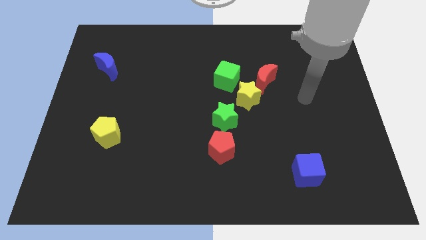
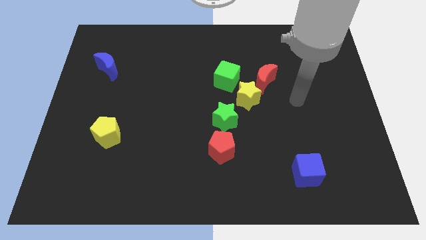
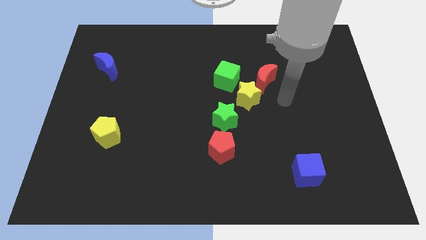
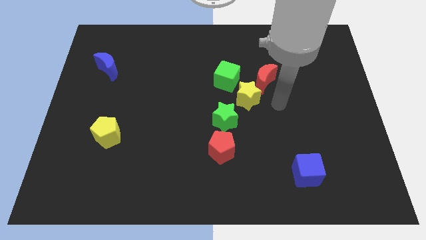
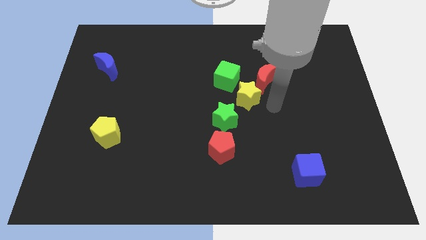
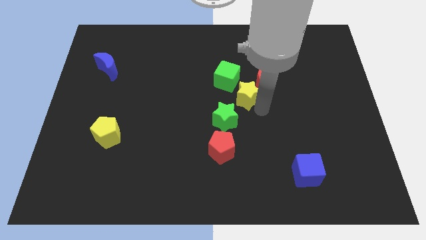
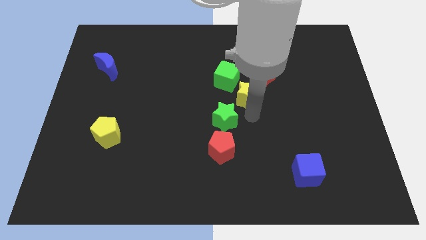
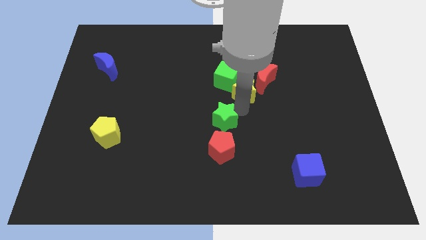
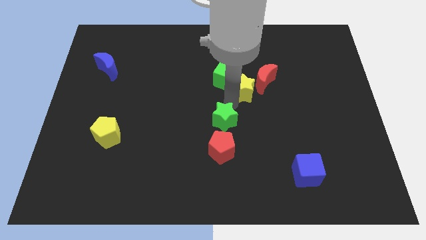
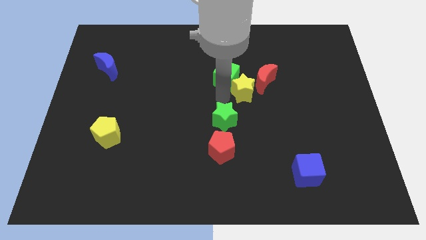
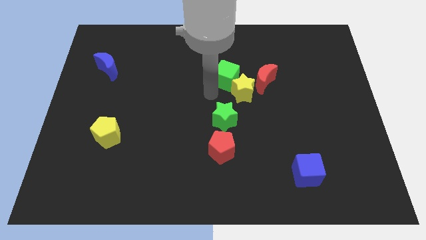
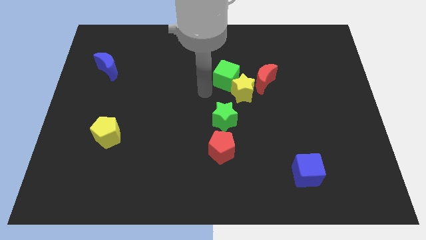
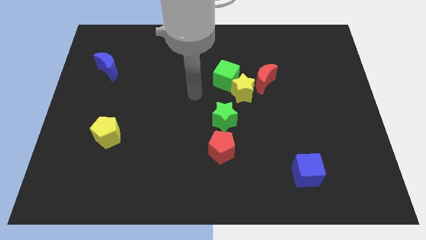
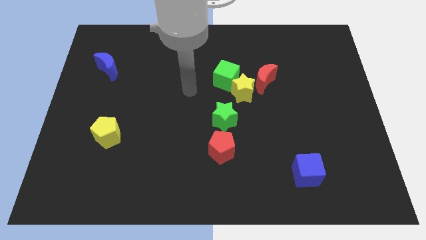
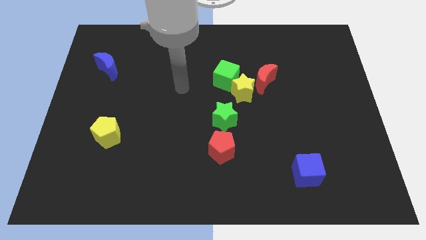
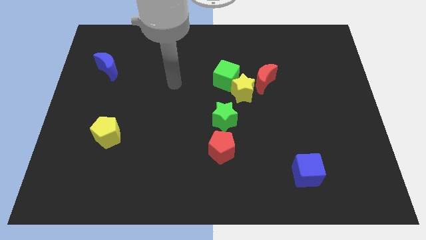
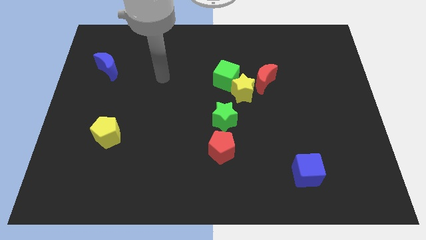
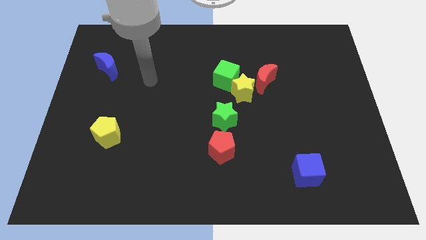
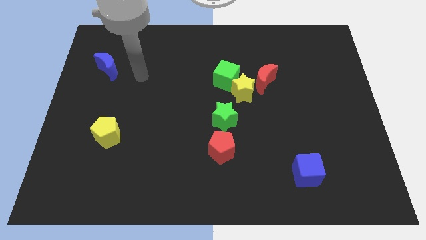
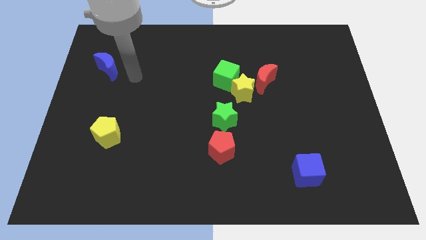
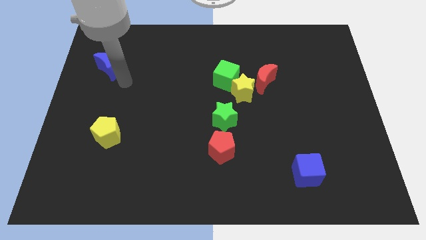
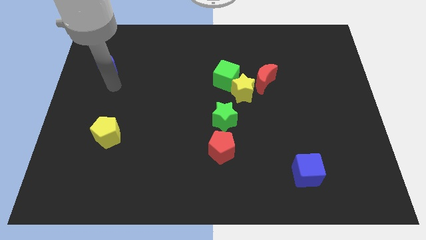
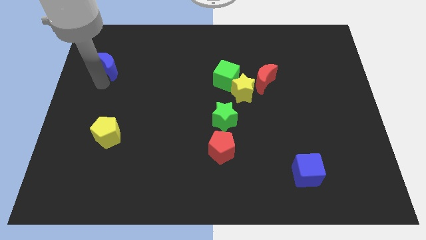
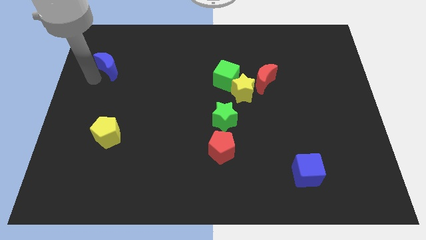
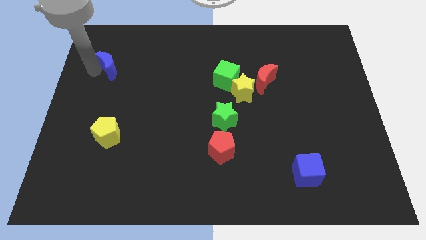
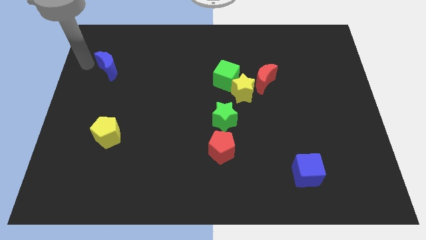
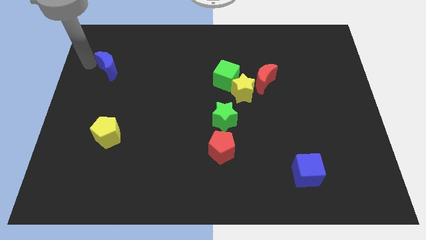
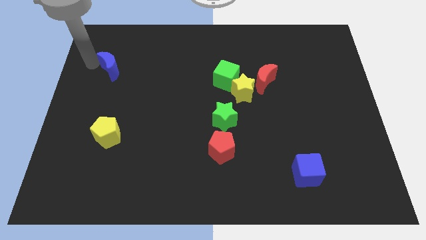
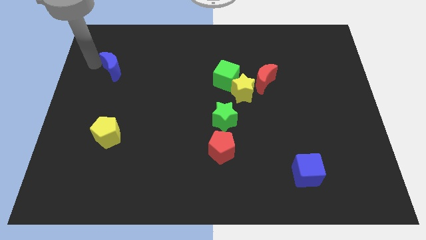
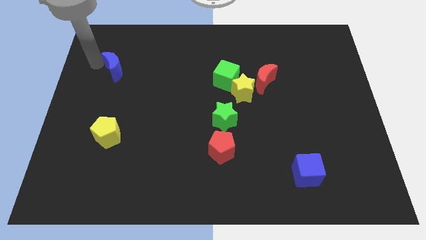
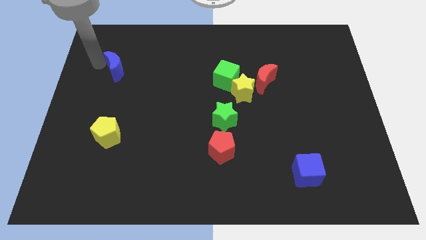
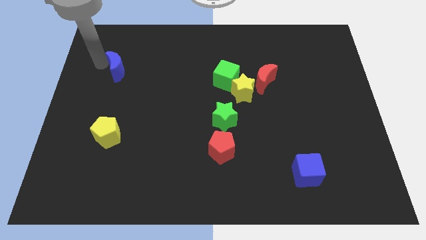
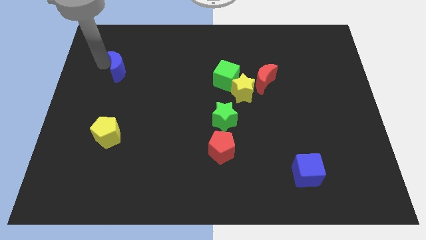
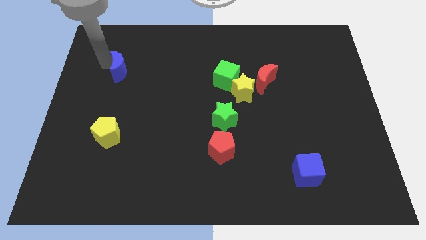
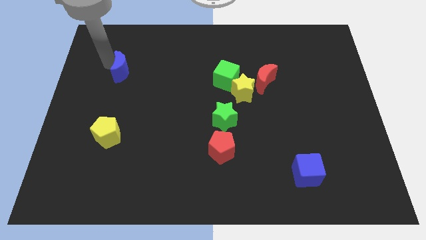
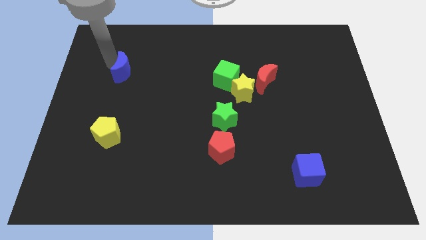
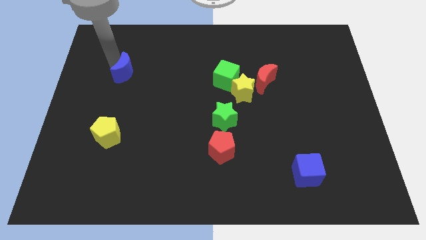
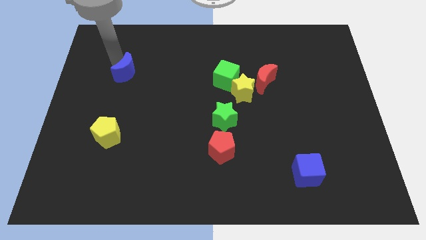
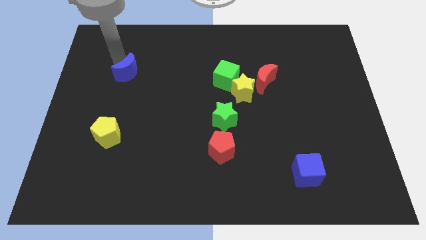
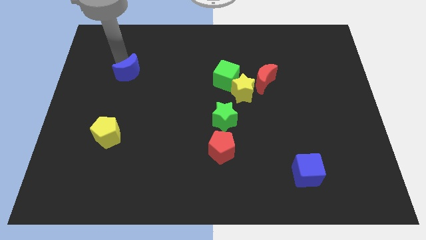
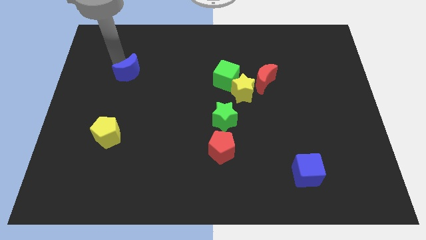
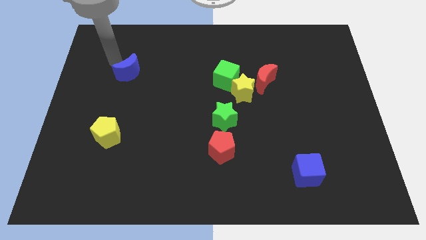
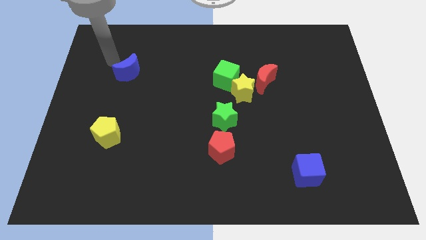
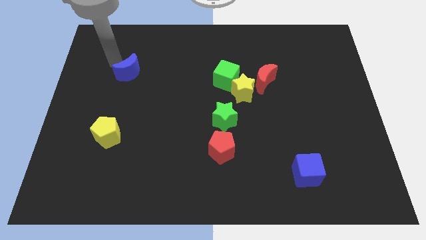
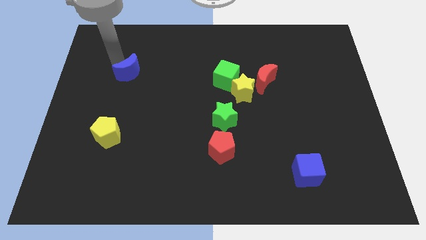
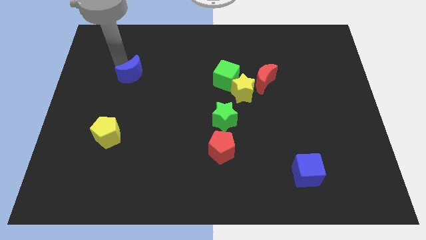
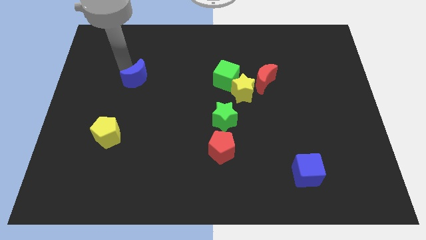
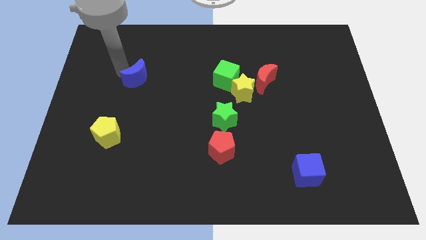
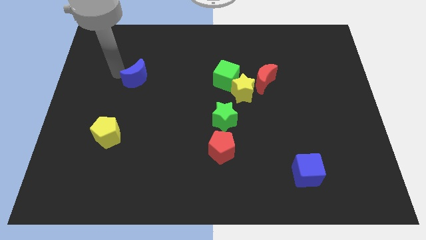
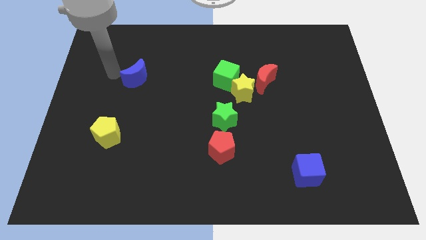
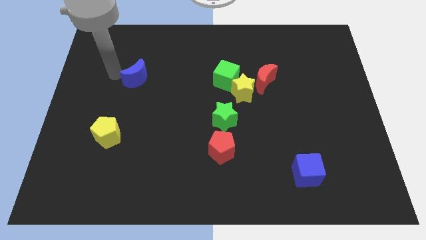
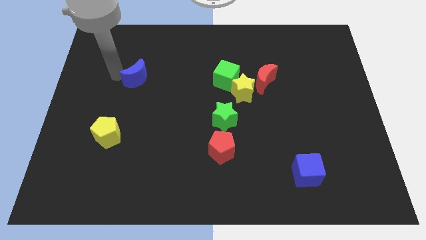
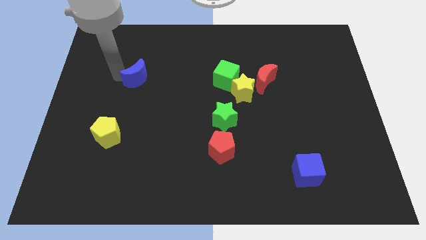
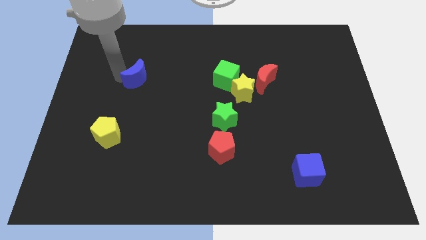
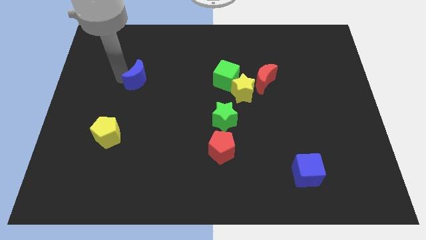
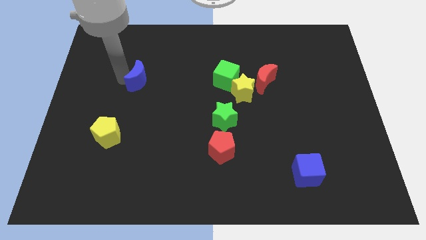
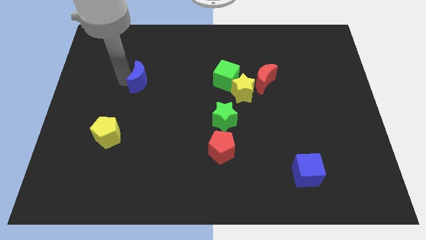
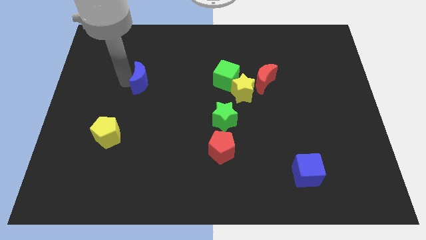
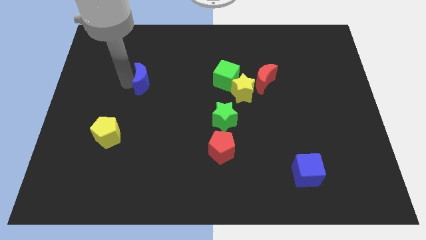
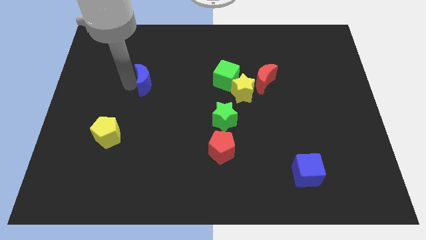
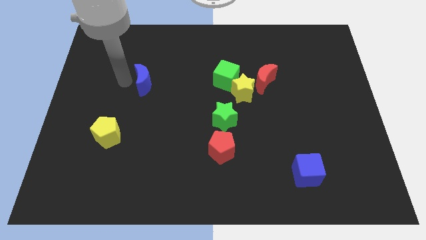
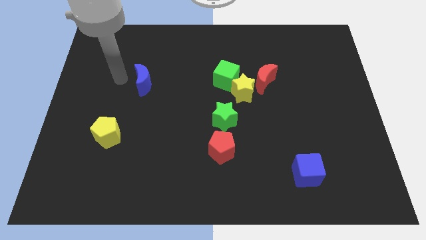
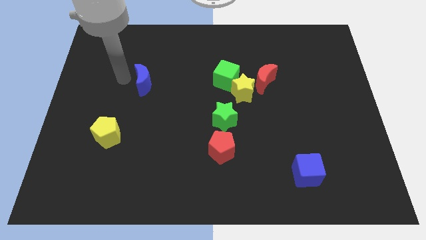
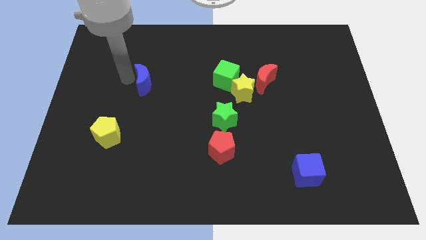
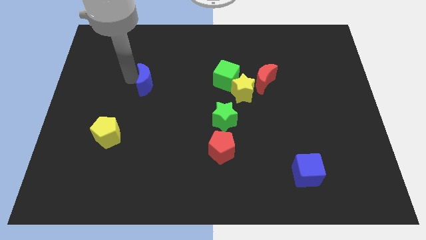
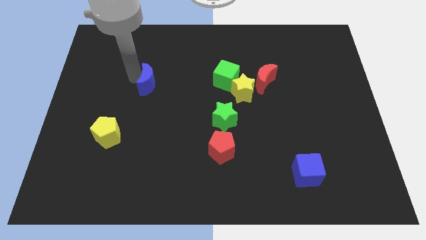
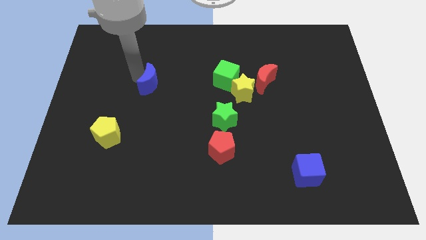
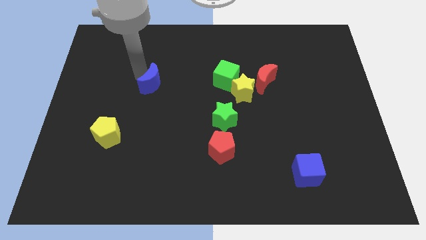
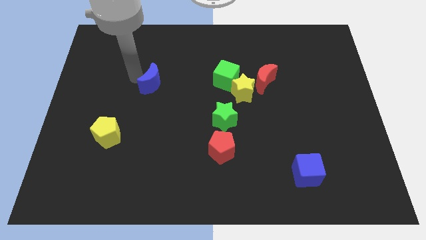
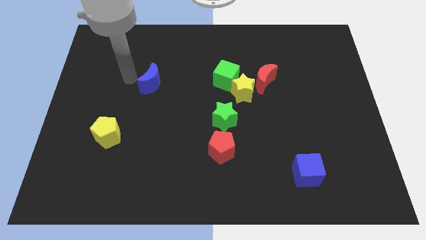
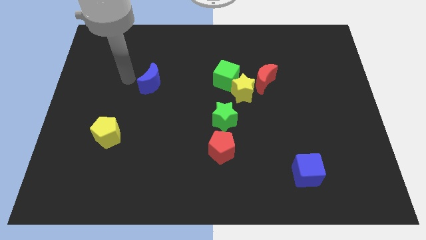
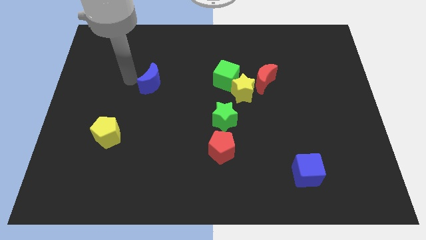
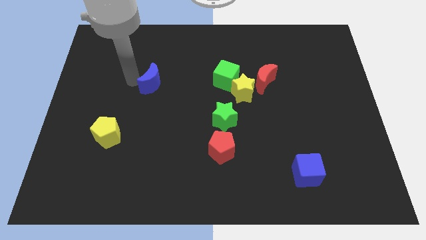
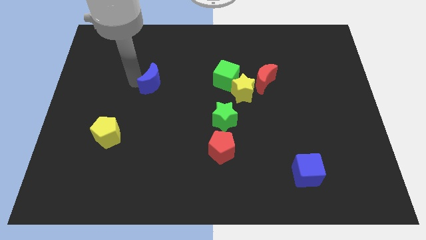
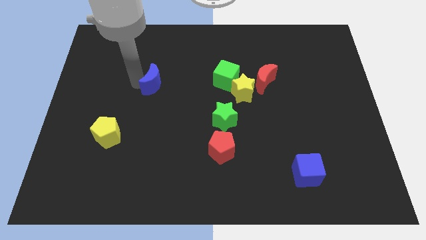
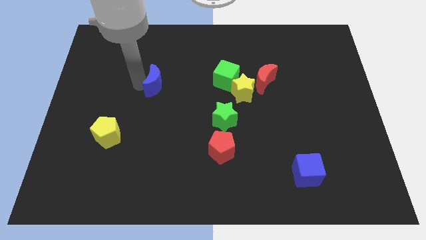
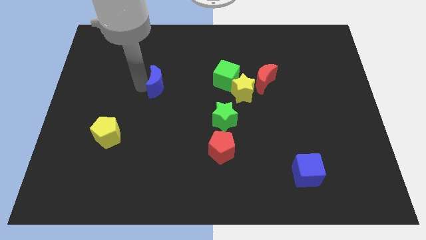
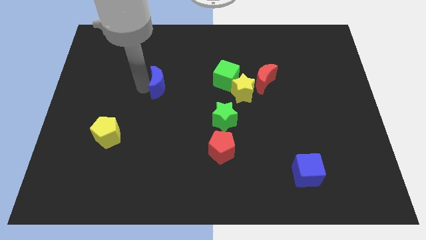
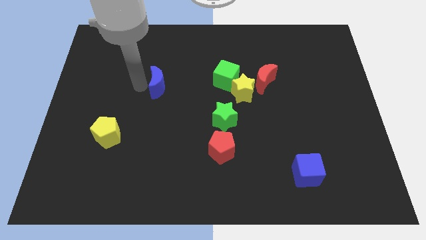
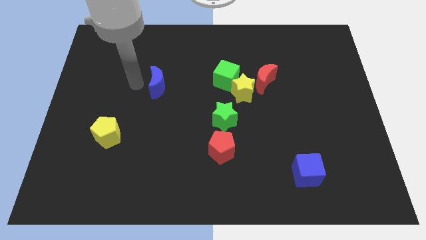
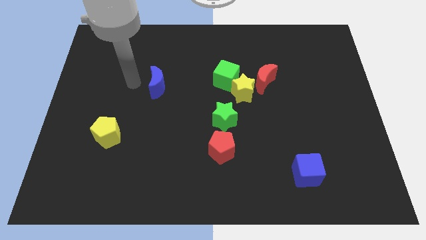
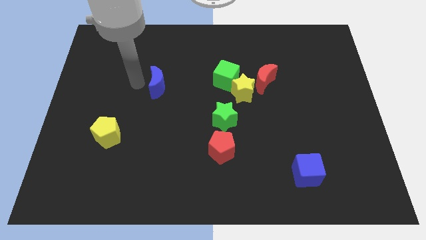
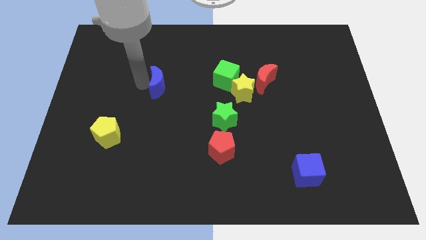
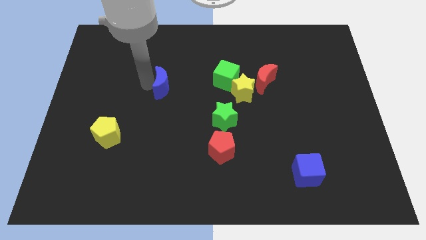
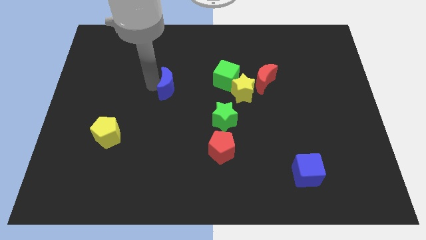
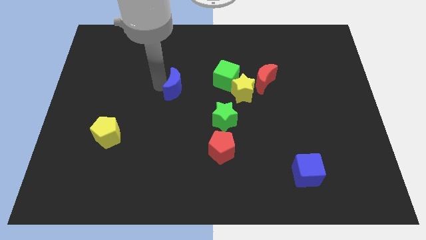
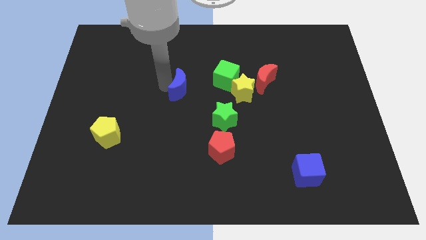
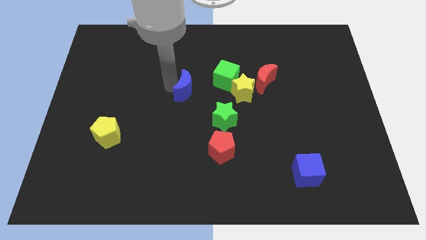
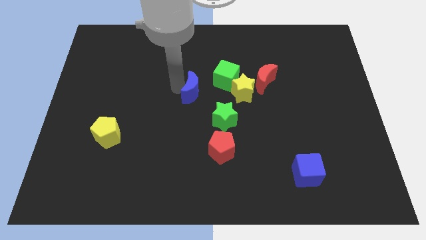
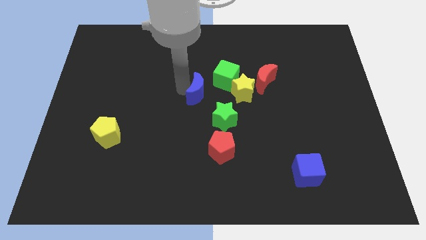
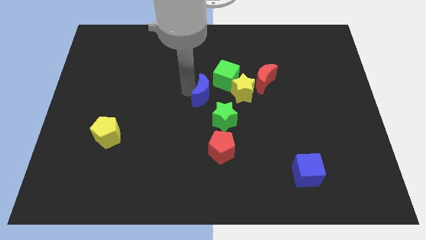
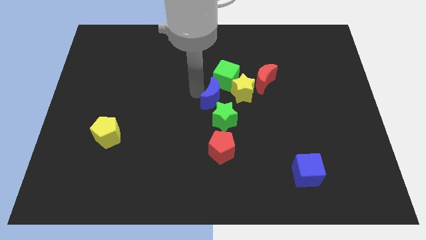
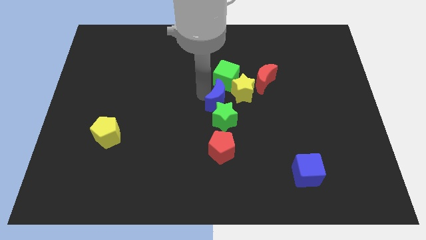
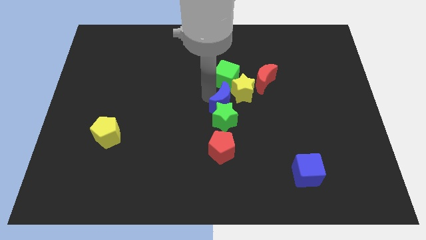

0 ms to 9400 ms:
move the blue moon to the bottom left of the red moon
